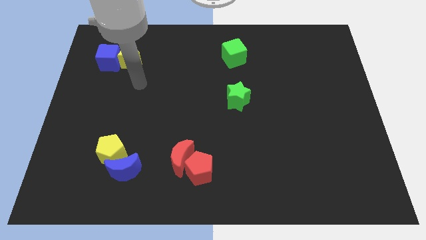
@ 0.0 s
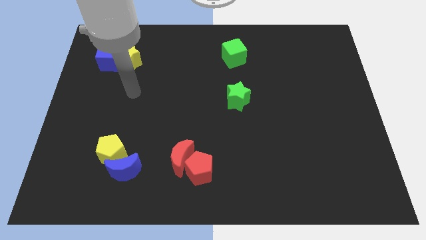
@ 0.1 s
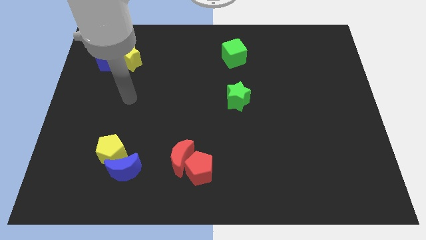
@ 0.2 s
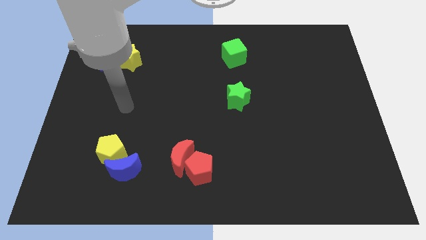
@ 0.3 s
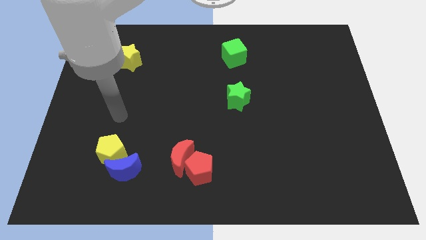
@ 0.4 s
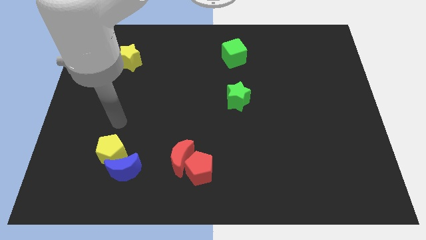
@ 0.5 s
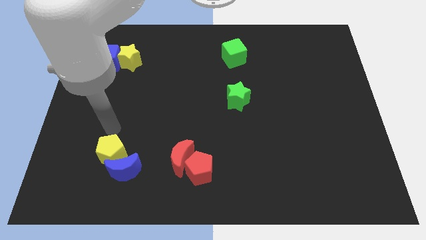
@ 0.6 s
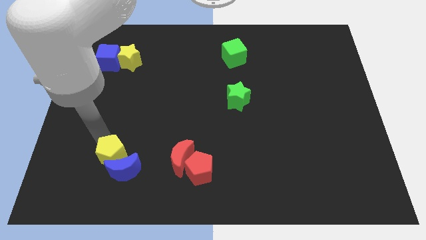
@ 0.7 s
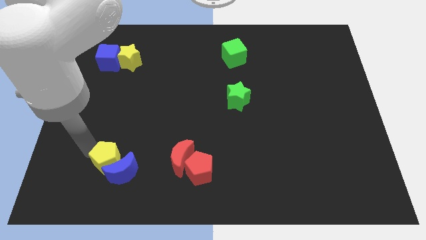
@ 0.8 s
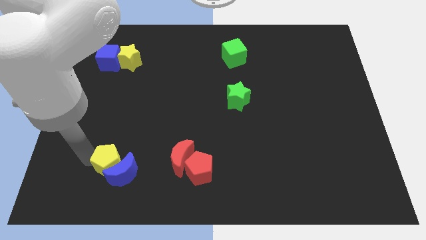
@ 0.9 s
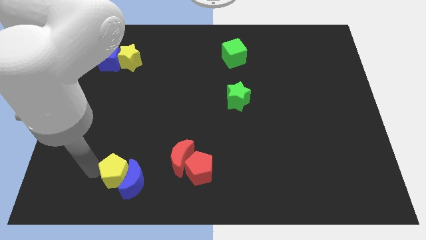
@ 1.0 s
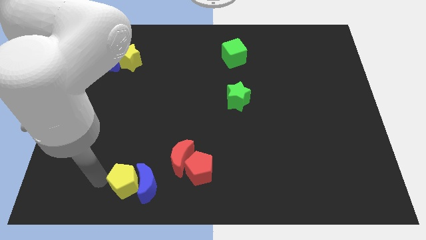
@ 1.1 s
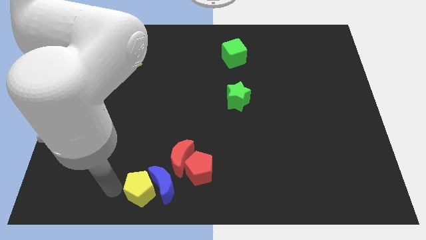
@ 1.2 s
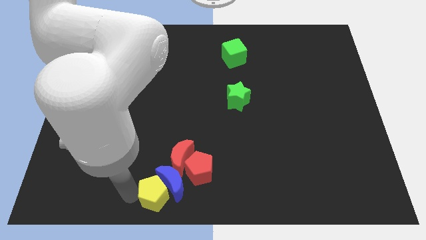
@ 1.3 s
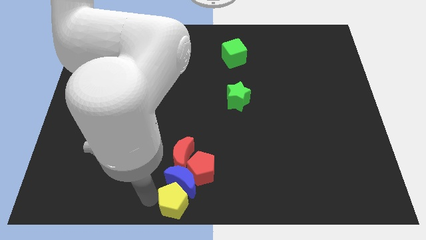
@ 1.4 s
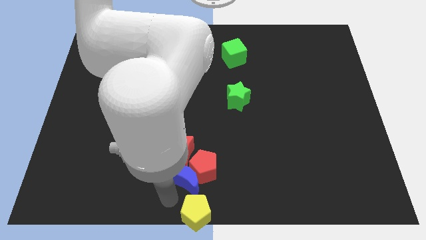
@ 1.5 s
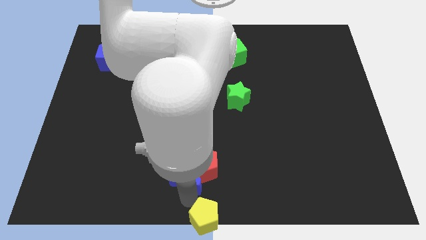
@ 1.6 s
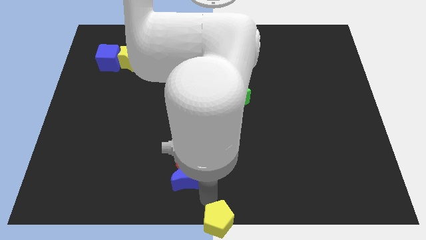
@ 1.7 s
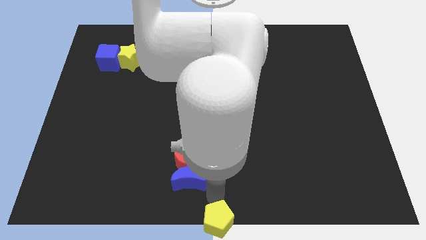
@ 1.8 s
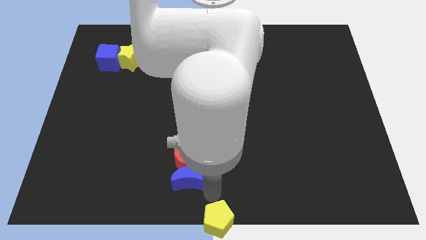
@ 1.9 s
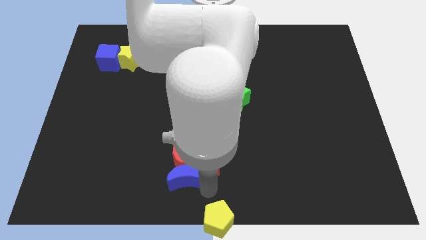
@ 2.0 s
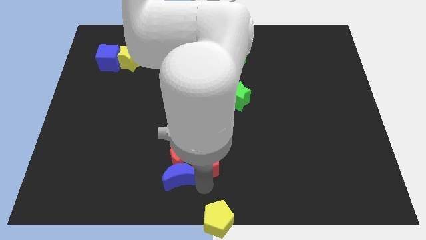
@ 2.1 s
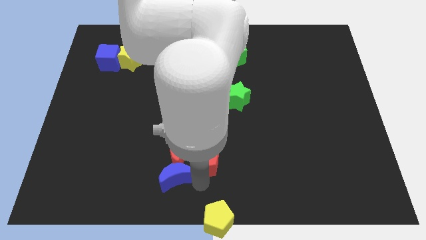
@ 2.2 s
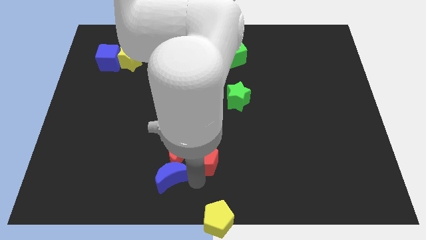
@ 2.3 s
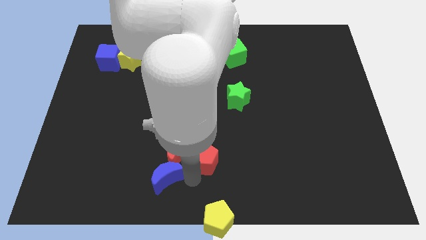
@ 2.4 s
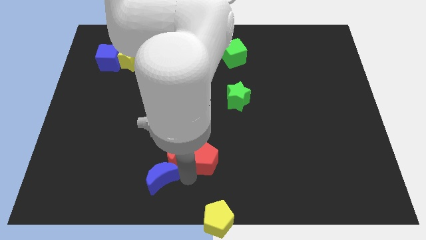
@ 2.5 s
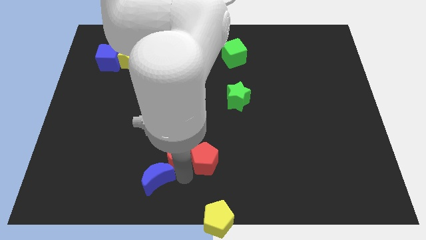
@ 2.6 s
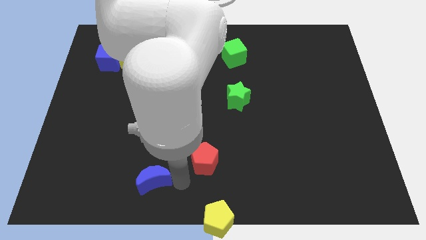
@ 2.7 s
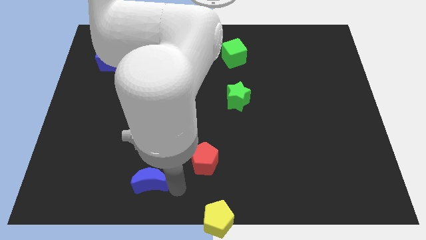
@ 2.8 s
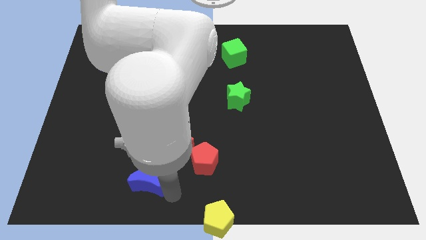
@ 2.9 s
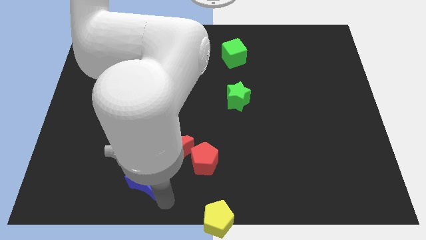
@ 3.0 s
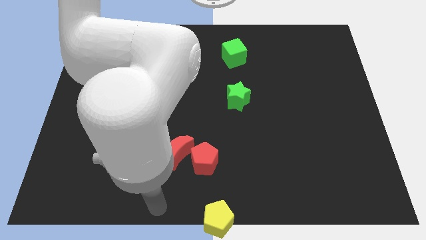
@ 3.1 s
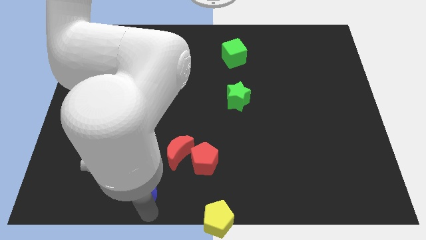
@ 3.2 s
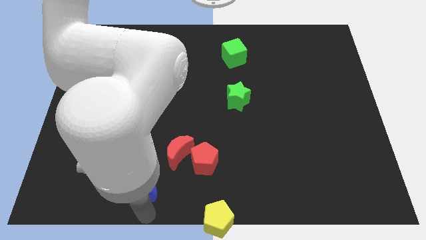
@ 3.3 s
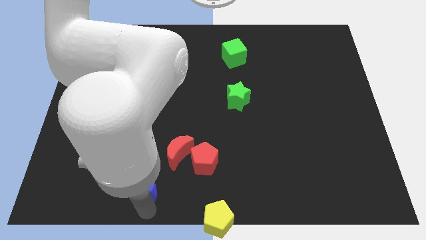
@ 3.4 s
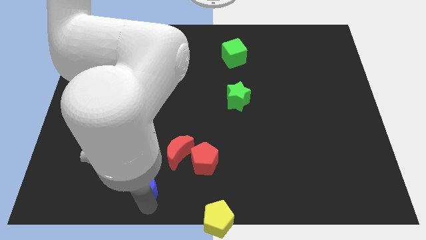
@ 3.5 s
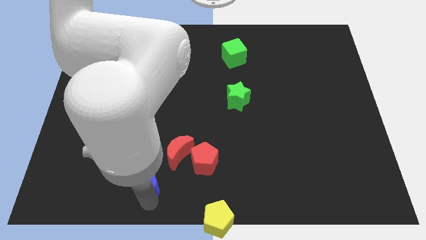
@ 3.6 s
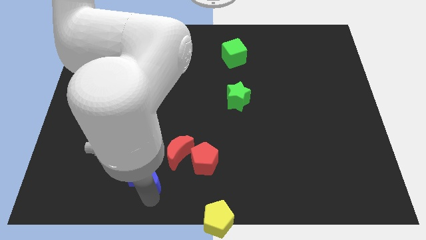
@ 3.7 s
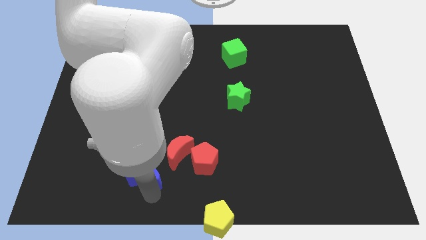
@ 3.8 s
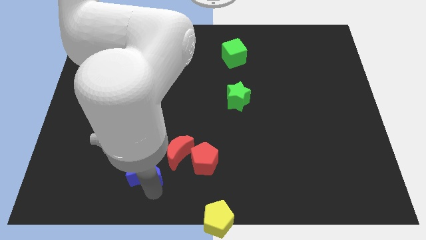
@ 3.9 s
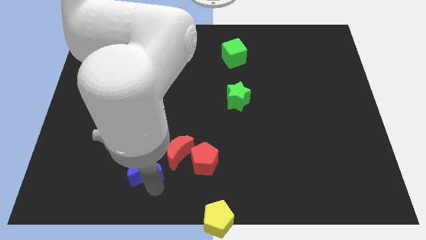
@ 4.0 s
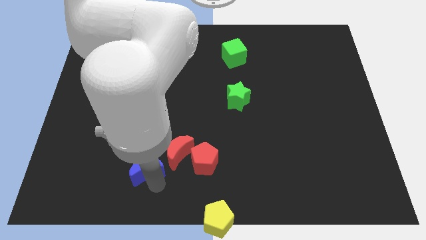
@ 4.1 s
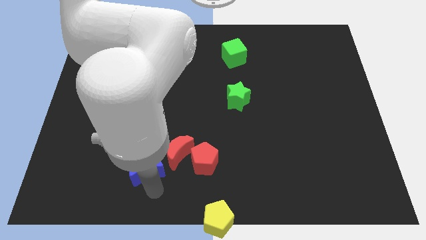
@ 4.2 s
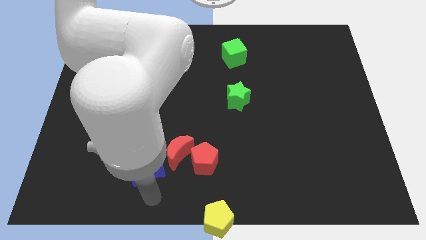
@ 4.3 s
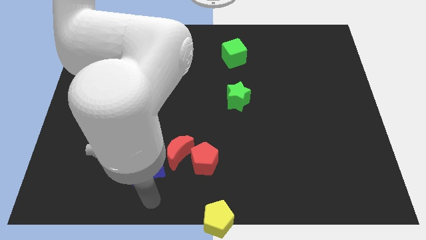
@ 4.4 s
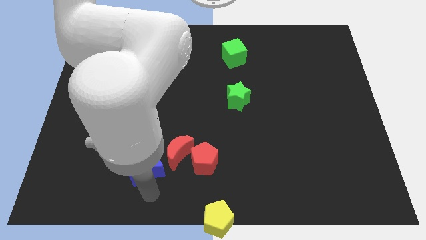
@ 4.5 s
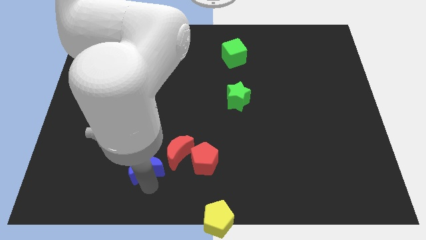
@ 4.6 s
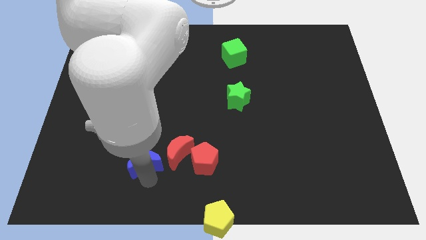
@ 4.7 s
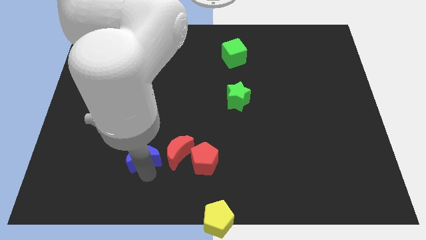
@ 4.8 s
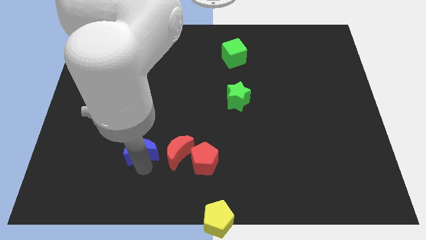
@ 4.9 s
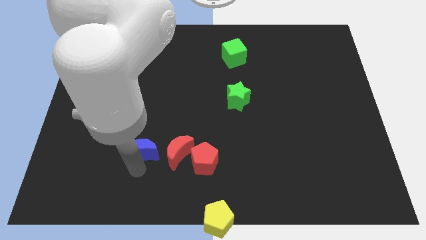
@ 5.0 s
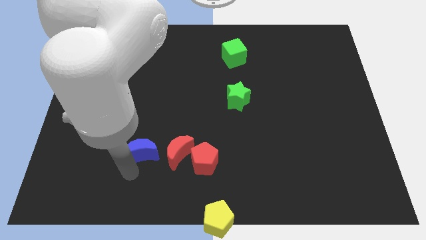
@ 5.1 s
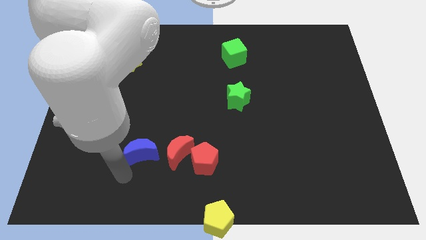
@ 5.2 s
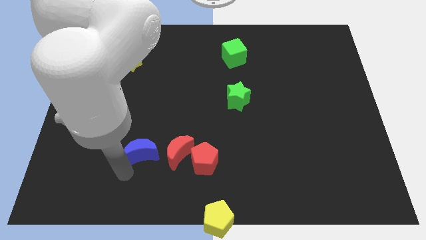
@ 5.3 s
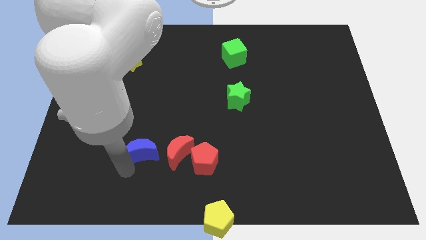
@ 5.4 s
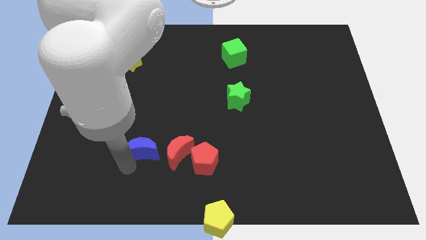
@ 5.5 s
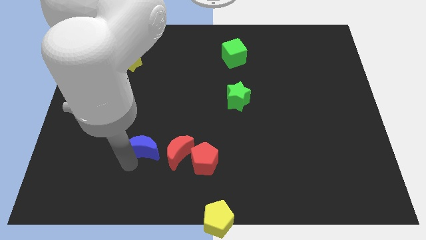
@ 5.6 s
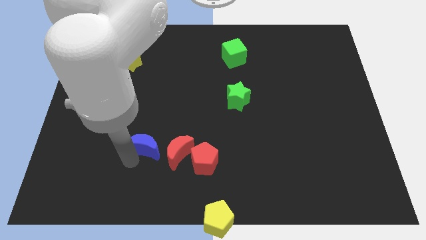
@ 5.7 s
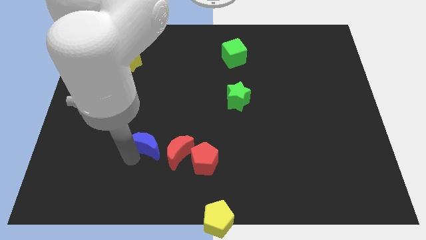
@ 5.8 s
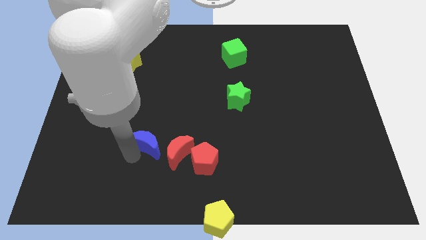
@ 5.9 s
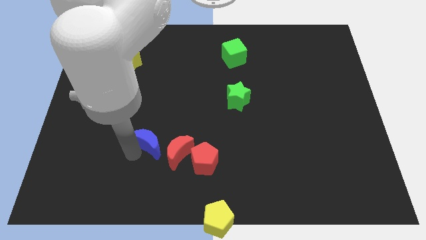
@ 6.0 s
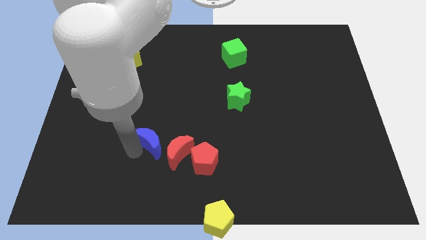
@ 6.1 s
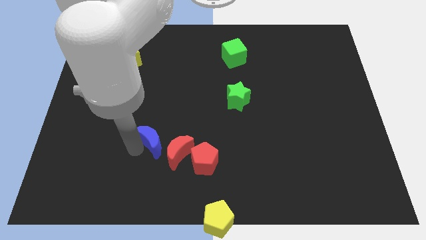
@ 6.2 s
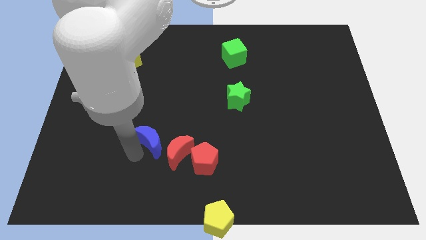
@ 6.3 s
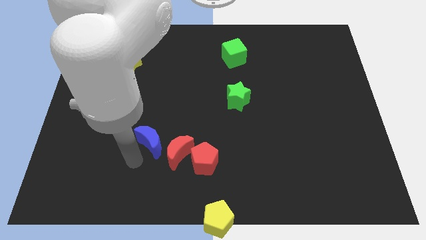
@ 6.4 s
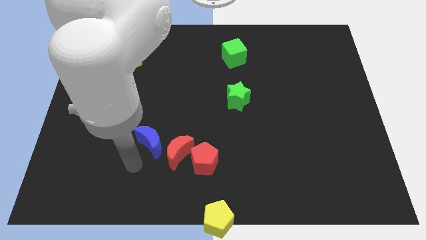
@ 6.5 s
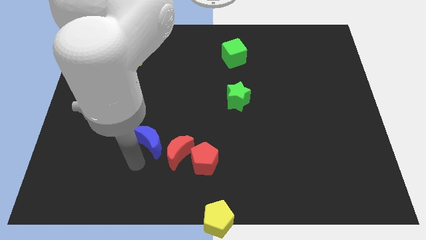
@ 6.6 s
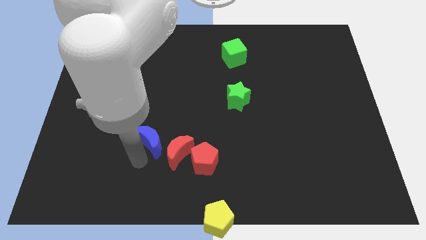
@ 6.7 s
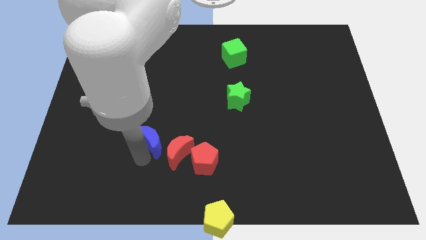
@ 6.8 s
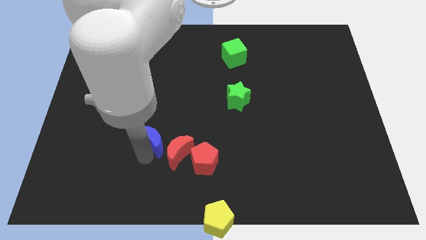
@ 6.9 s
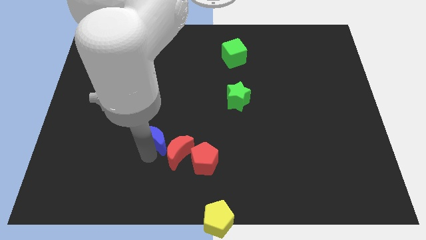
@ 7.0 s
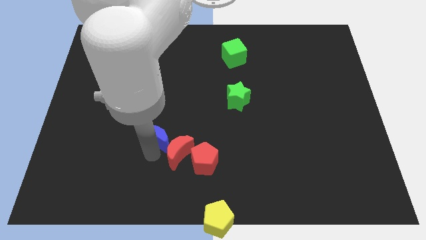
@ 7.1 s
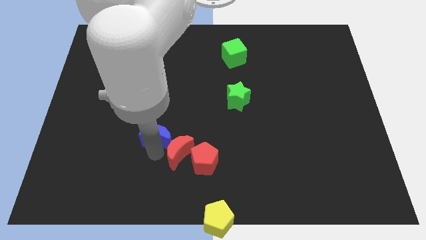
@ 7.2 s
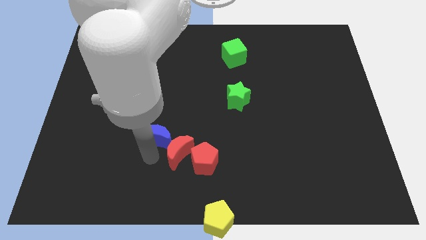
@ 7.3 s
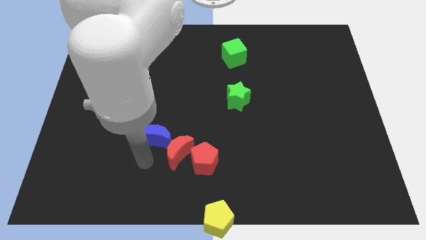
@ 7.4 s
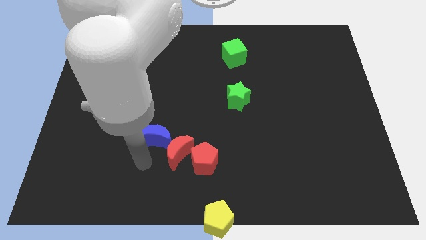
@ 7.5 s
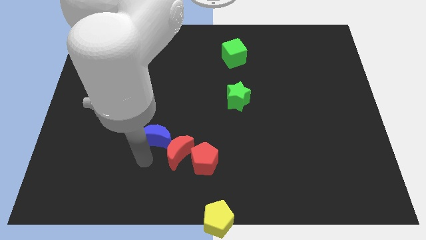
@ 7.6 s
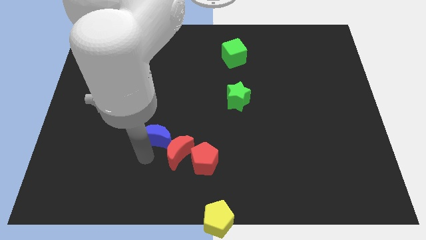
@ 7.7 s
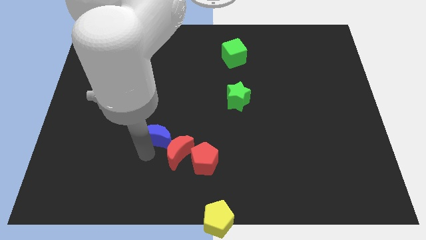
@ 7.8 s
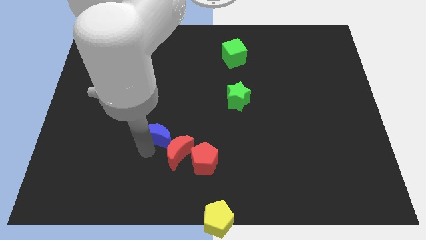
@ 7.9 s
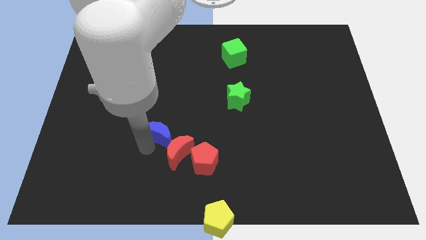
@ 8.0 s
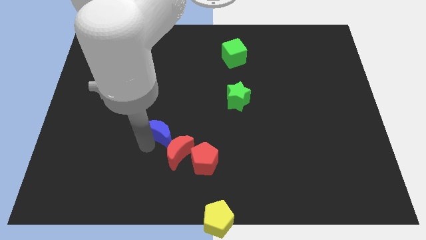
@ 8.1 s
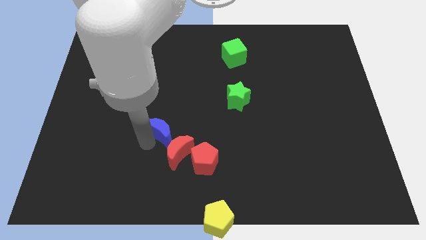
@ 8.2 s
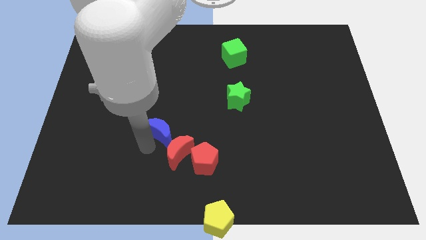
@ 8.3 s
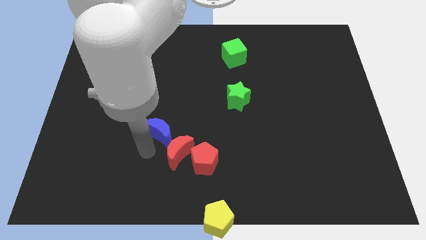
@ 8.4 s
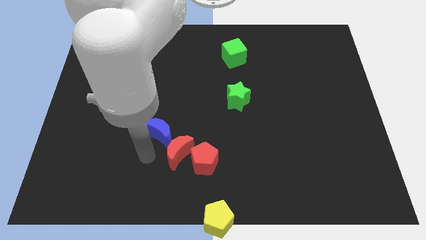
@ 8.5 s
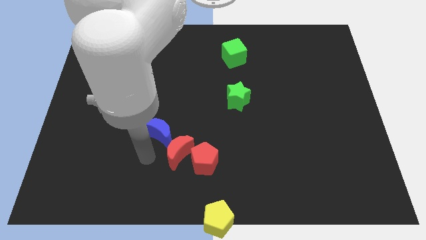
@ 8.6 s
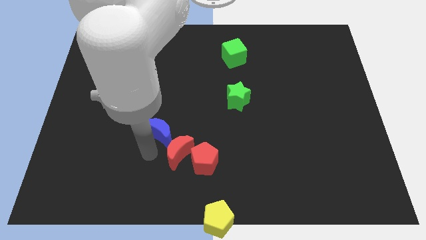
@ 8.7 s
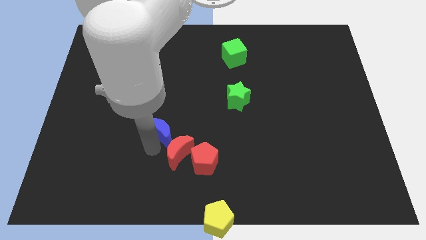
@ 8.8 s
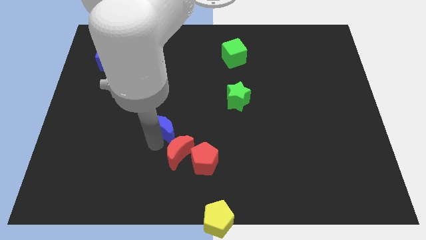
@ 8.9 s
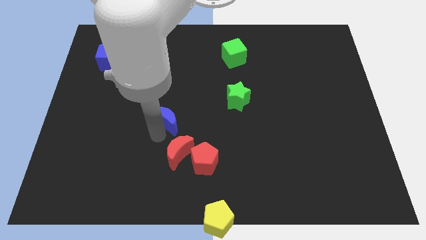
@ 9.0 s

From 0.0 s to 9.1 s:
slide the blue moon to the center of the board
